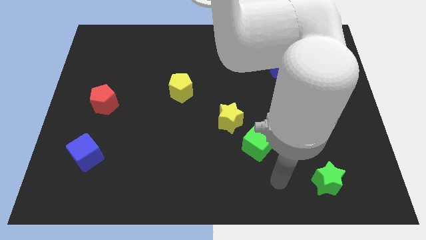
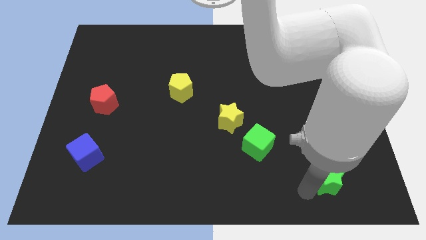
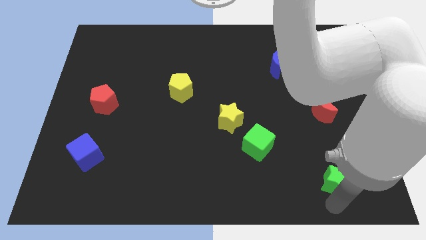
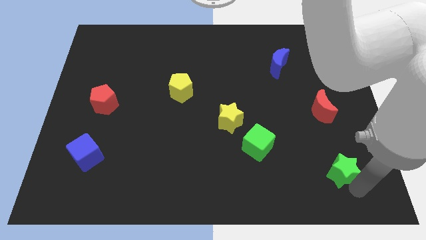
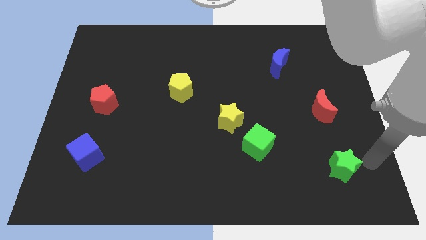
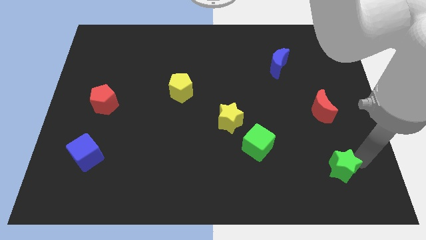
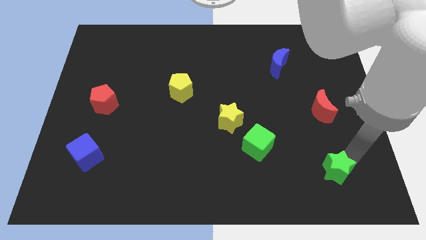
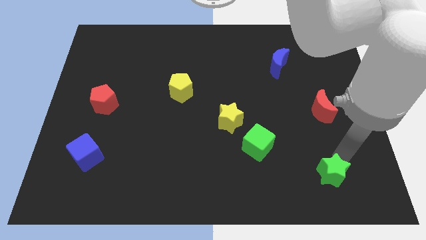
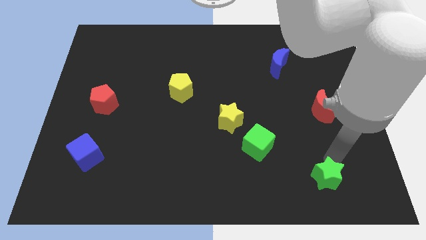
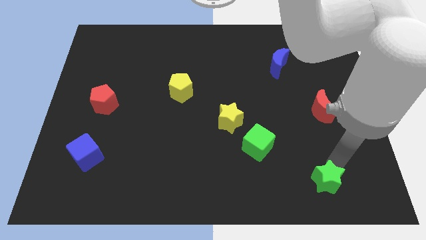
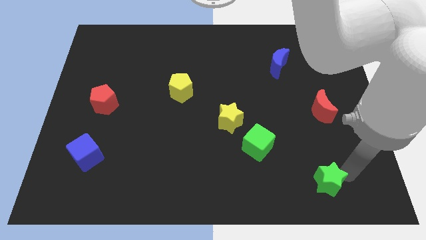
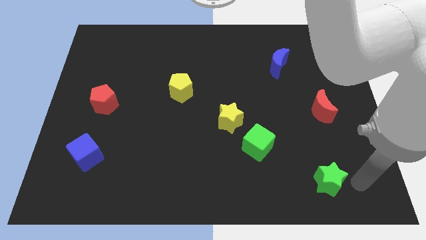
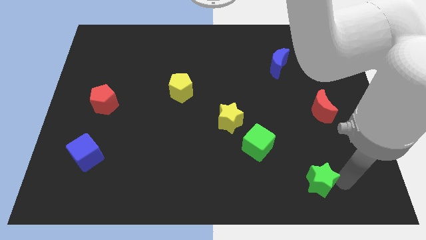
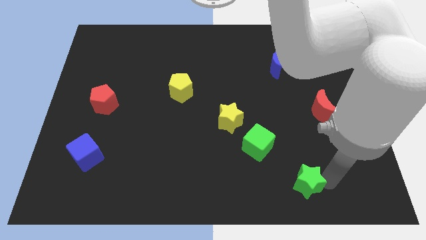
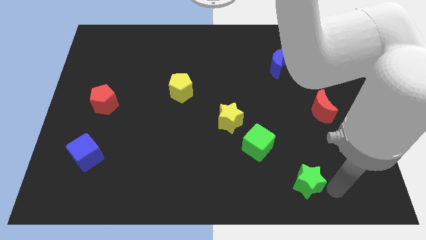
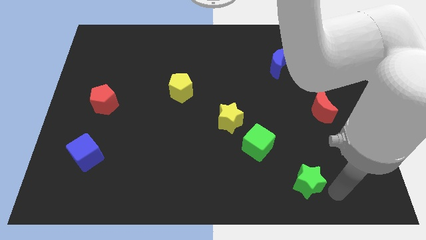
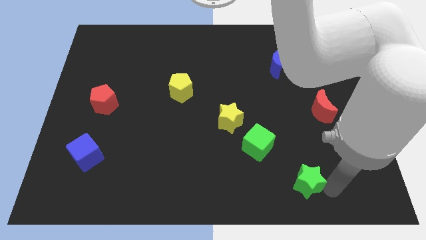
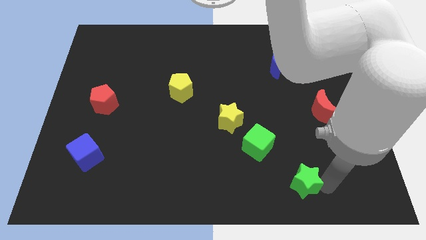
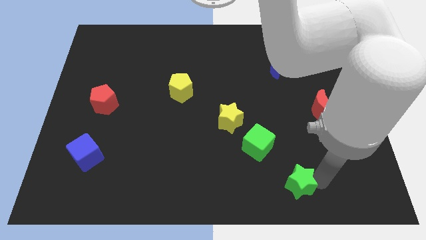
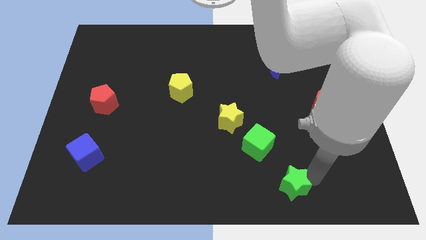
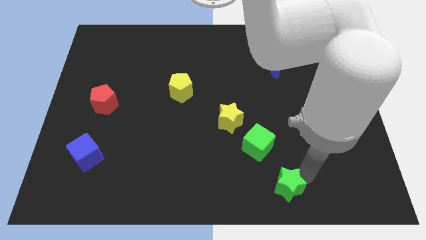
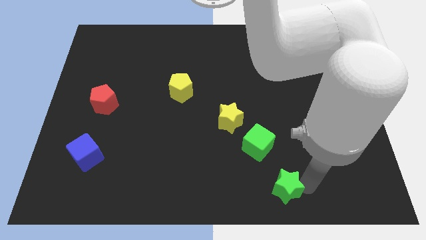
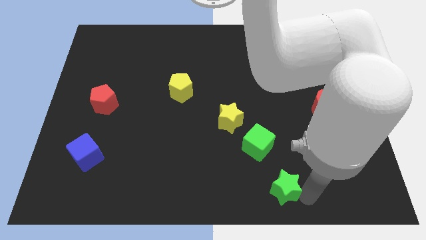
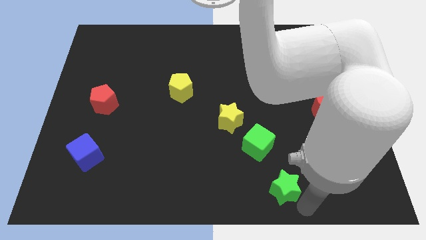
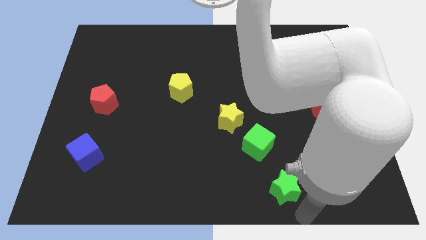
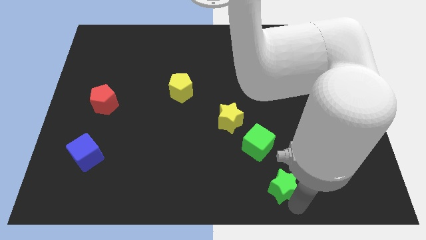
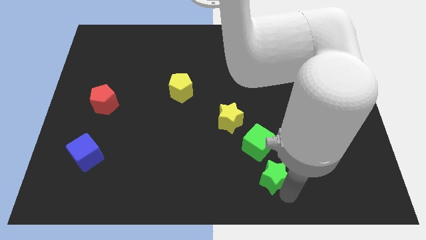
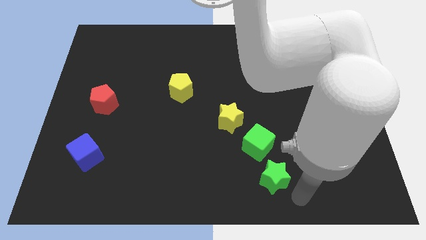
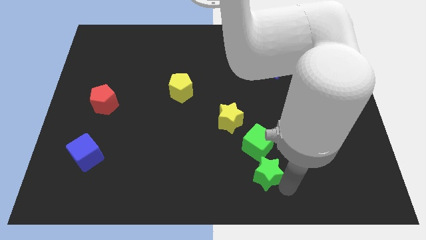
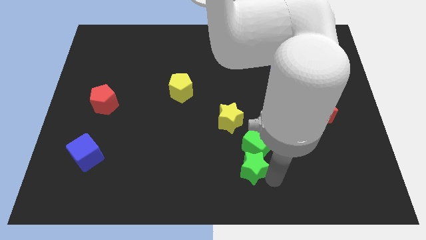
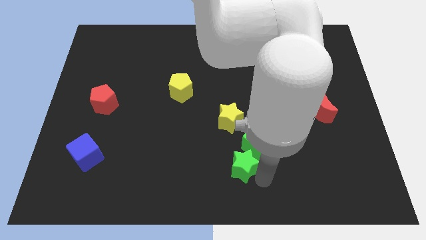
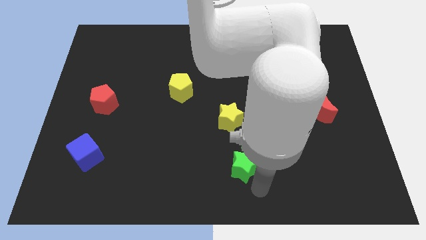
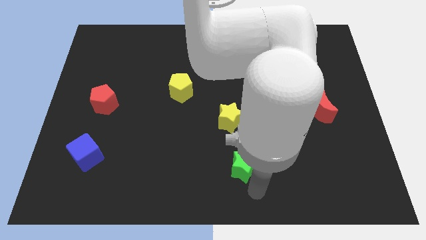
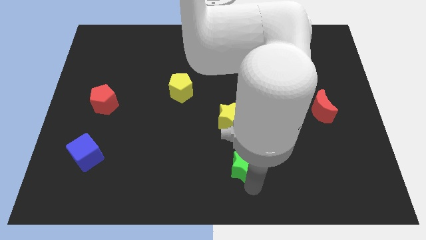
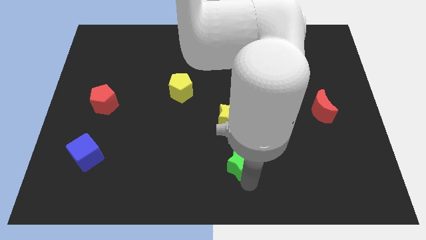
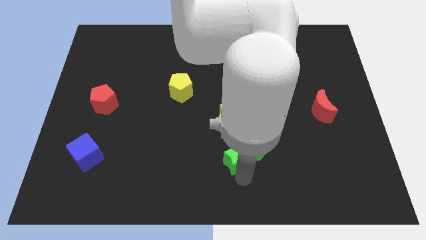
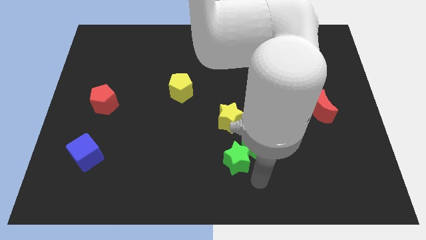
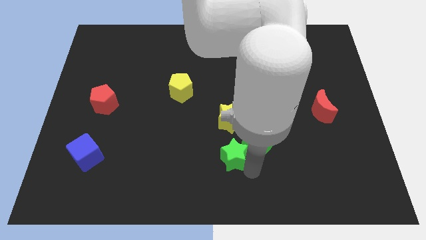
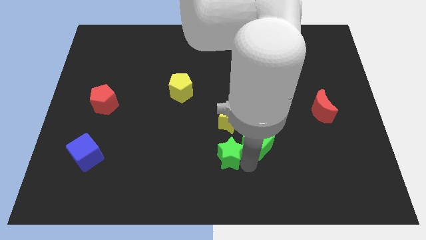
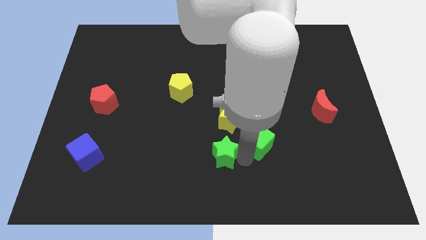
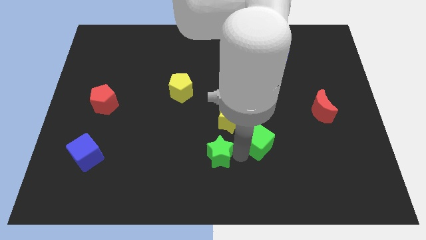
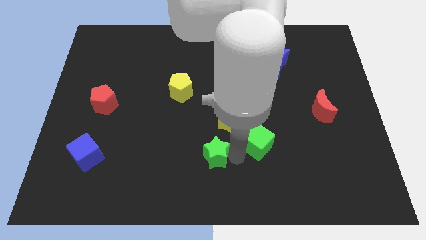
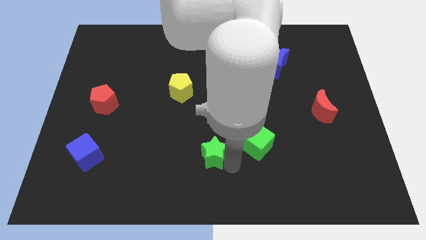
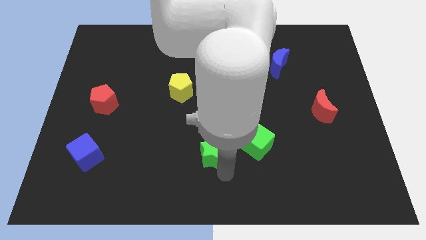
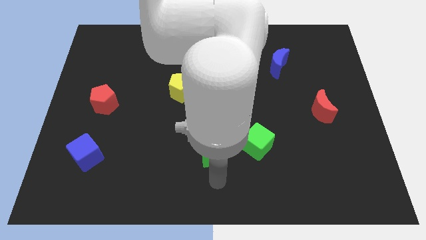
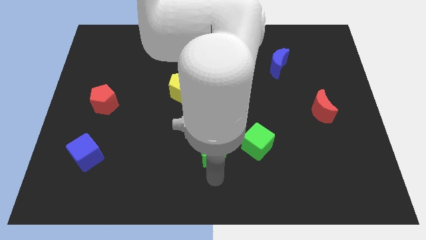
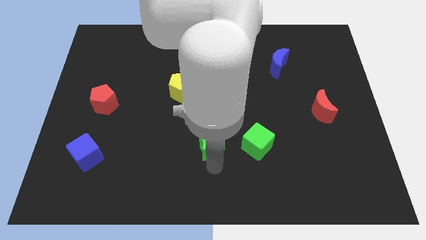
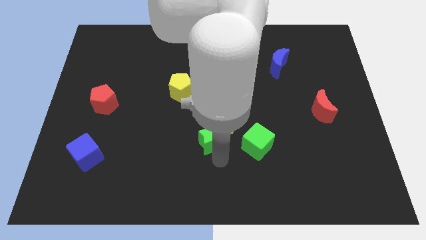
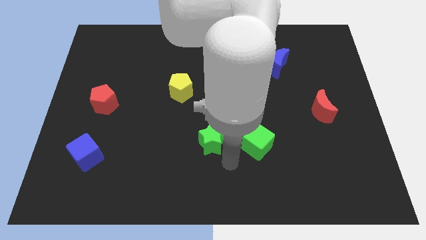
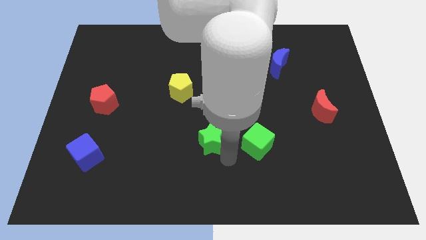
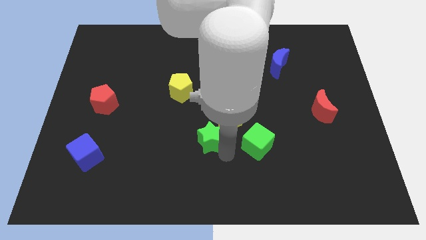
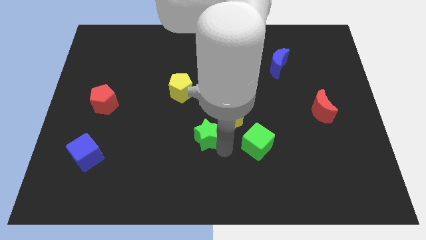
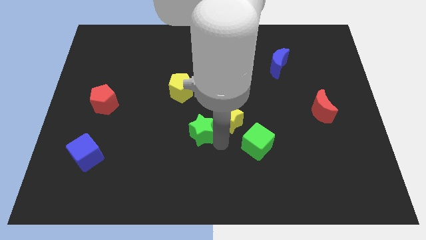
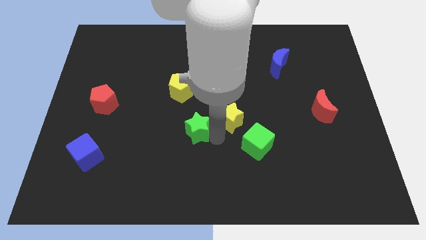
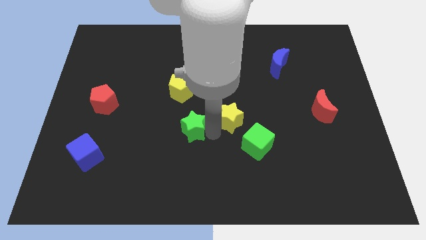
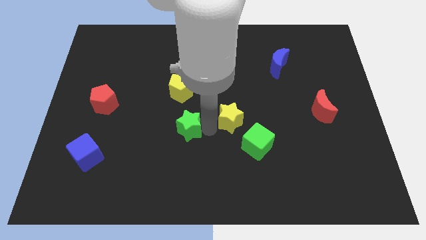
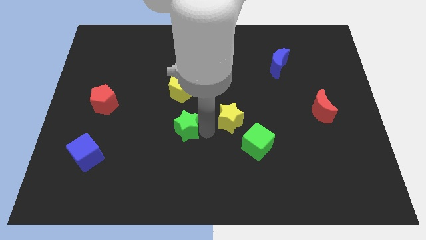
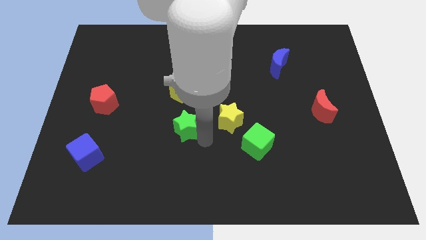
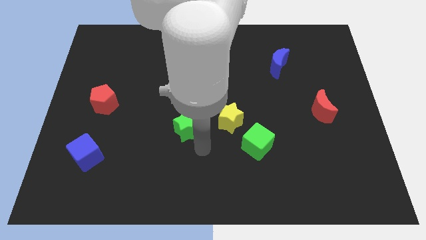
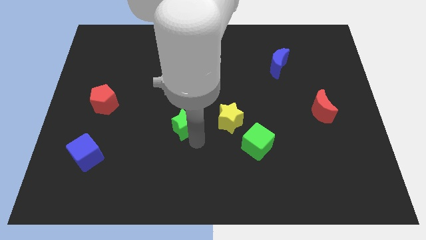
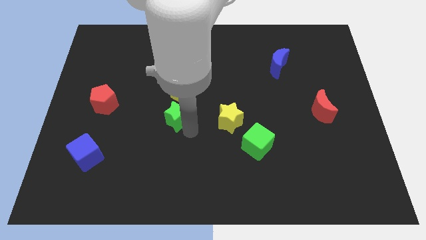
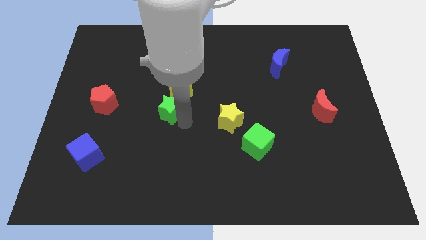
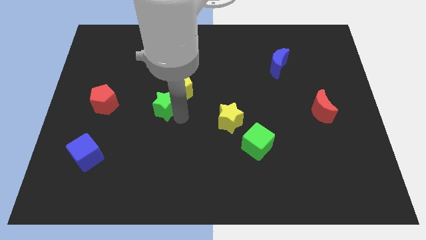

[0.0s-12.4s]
push the green star to the right of the red pentagon

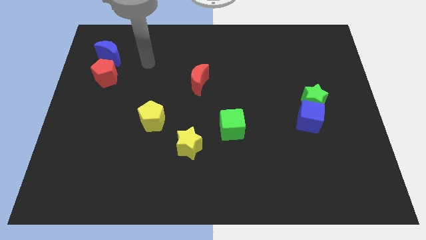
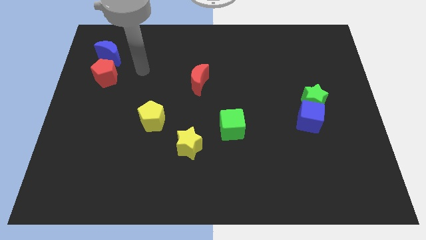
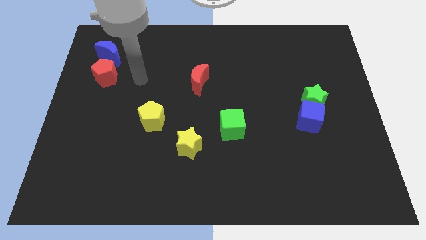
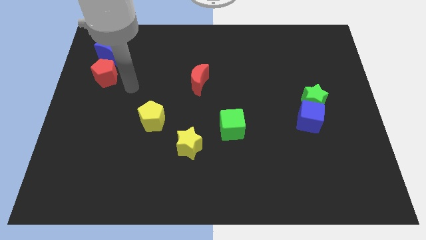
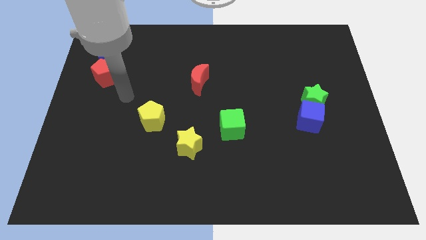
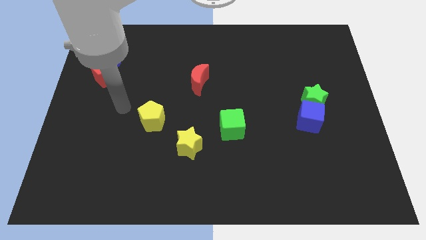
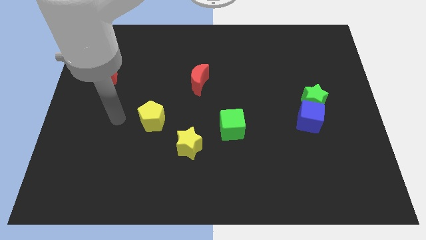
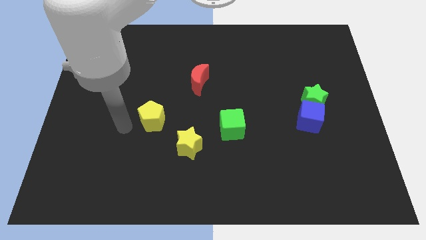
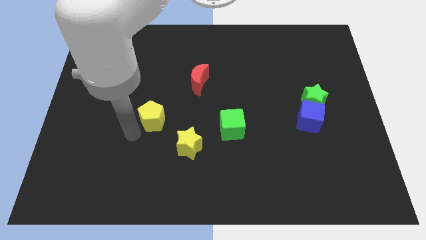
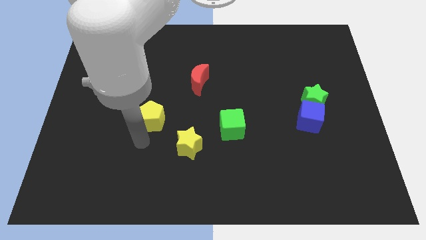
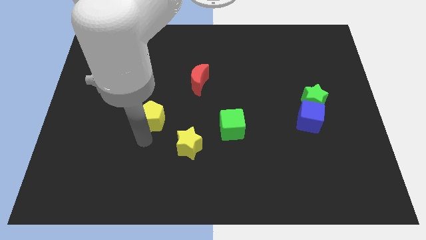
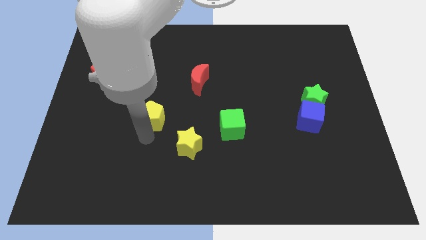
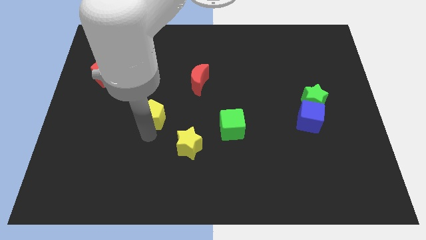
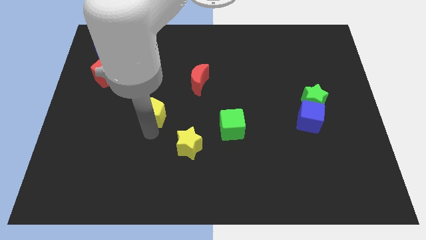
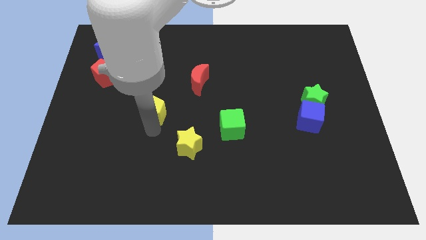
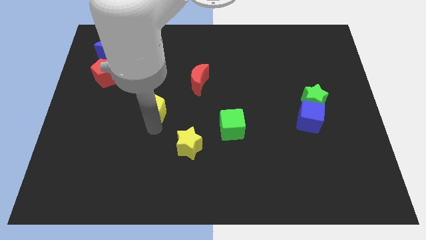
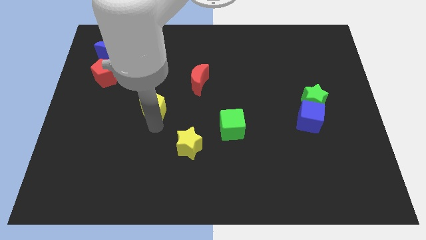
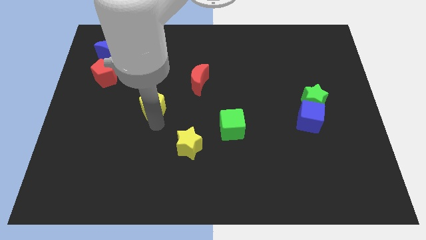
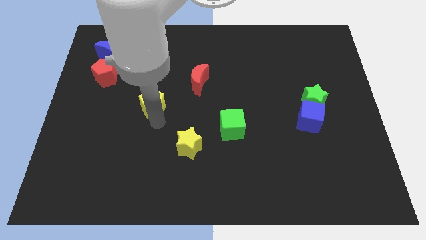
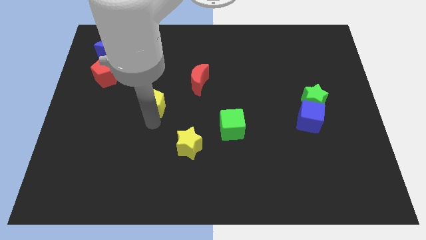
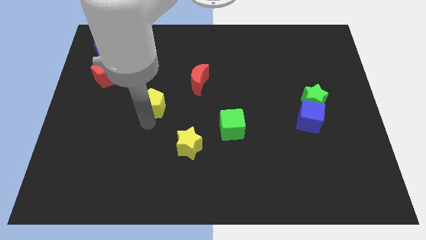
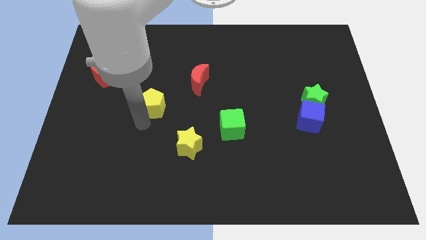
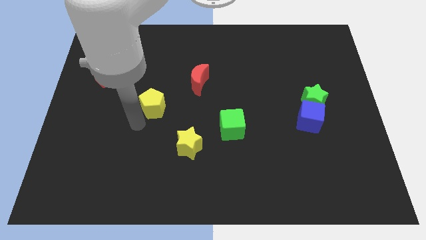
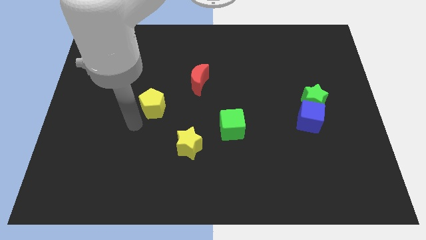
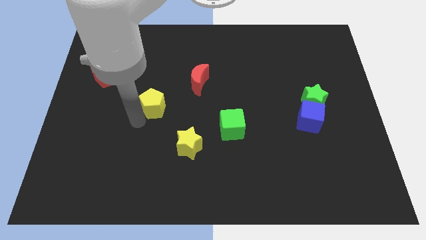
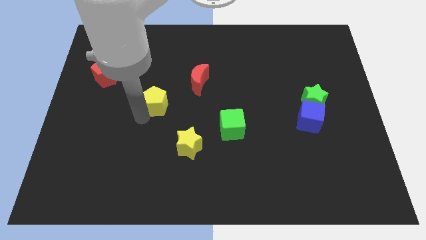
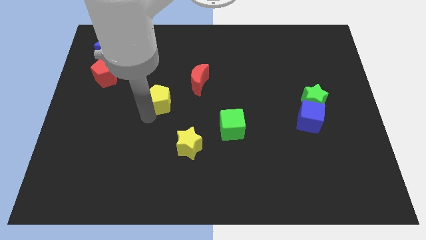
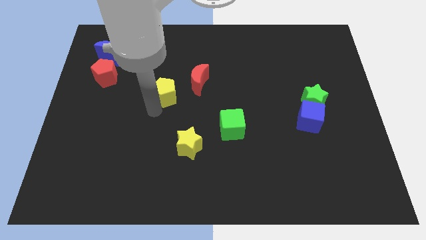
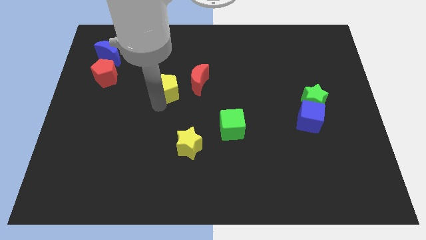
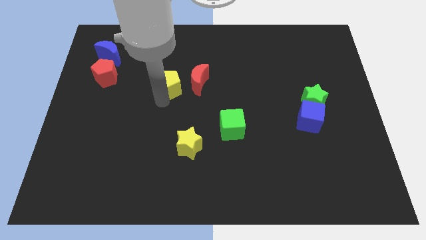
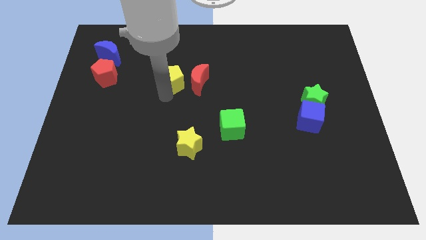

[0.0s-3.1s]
move the yellow pentagon diagonally up and to the left of the red moon
